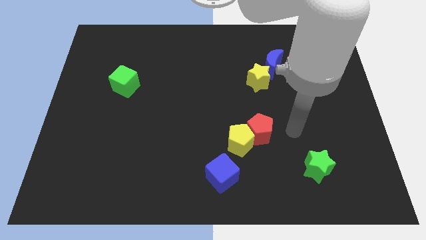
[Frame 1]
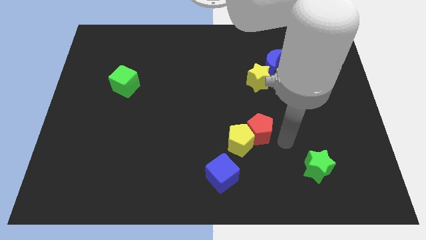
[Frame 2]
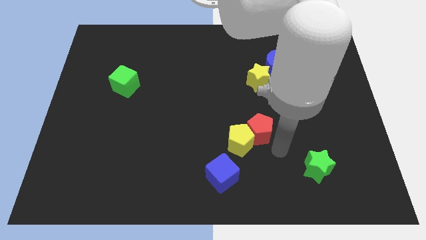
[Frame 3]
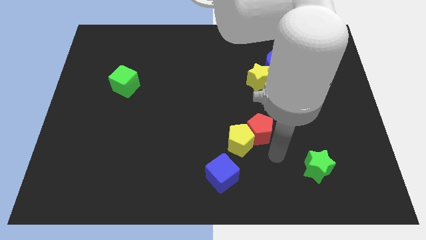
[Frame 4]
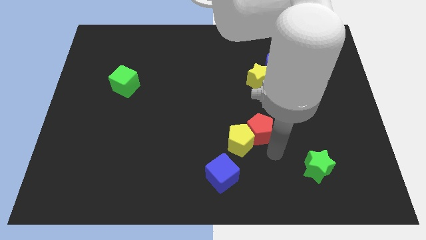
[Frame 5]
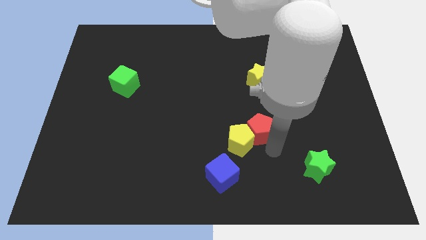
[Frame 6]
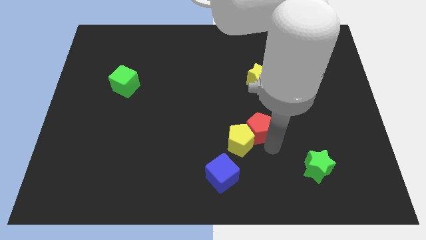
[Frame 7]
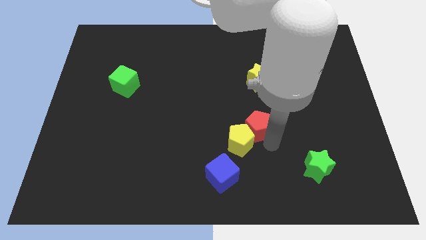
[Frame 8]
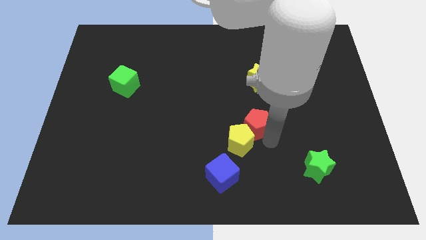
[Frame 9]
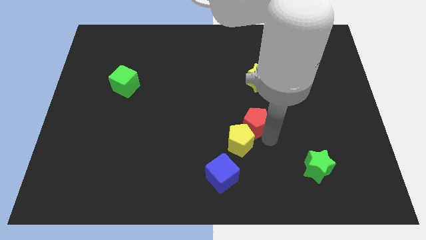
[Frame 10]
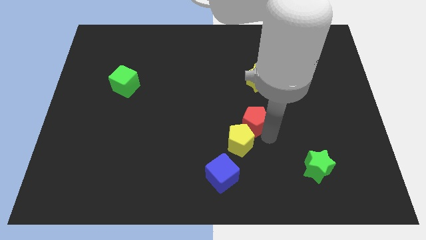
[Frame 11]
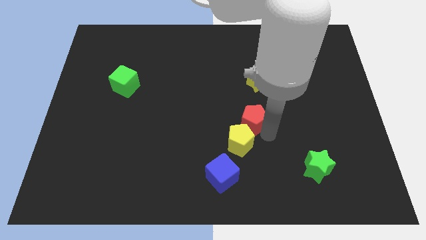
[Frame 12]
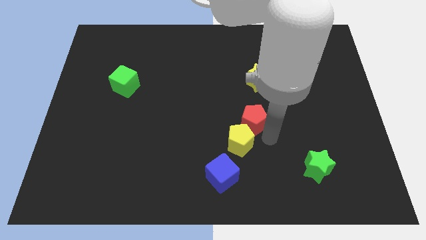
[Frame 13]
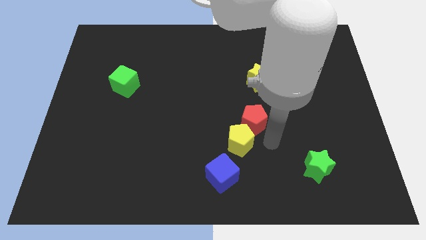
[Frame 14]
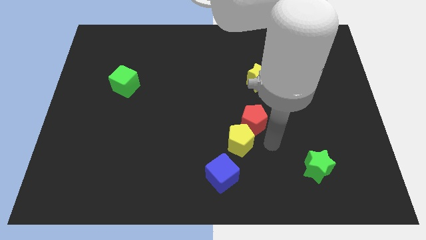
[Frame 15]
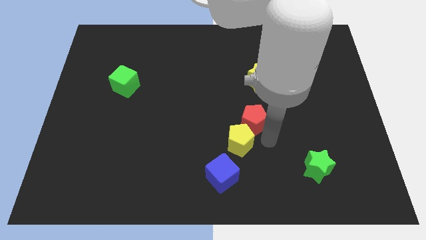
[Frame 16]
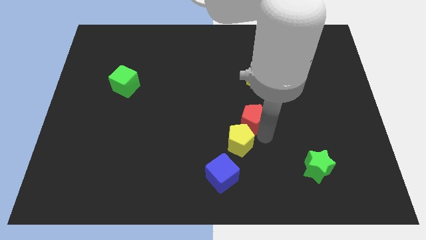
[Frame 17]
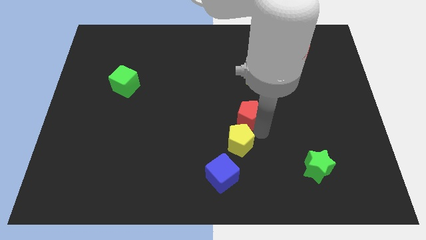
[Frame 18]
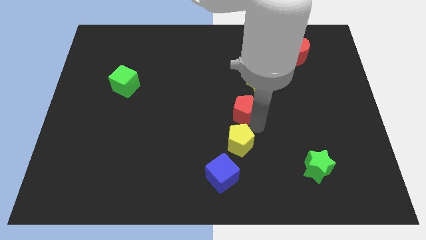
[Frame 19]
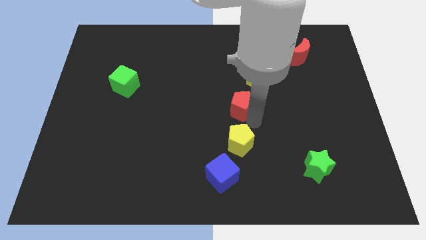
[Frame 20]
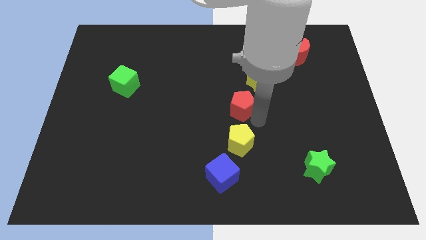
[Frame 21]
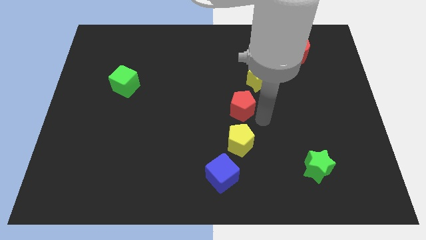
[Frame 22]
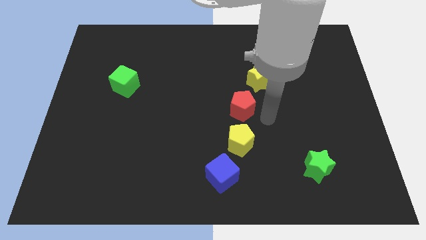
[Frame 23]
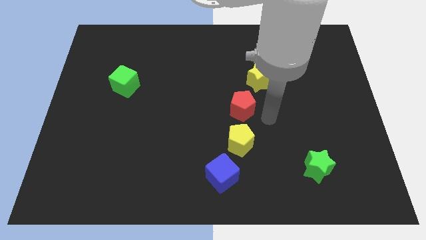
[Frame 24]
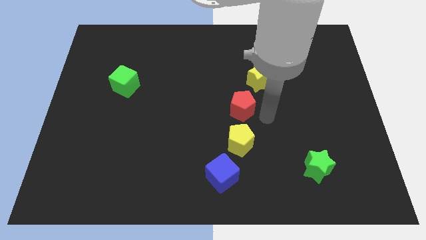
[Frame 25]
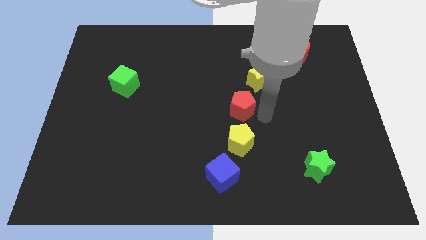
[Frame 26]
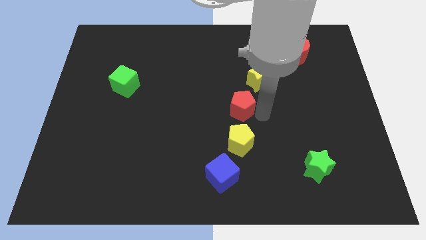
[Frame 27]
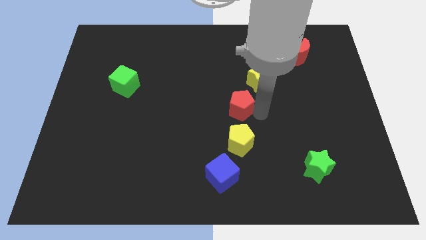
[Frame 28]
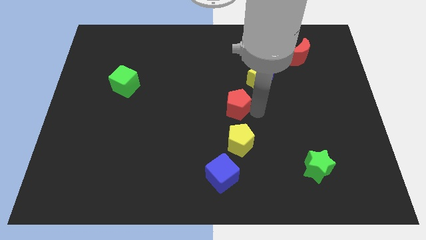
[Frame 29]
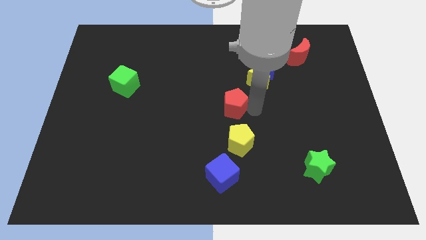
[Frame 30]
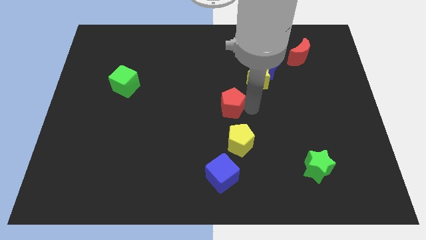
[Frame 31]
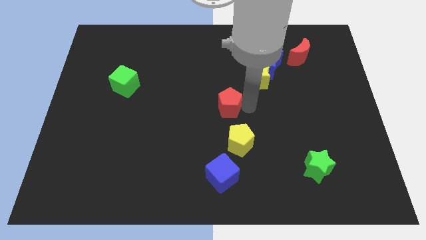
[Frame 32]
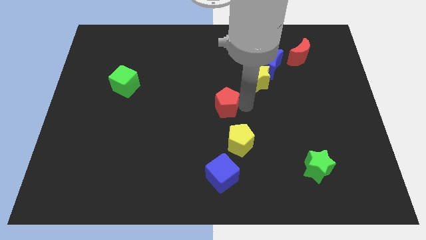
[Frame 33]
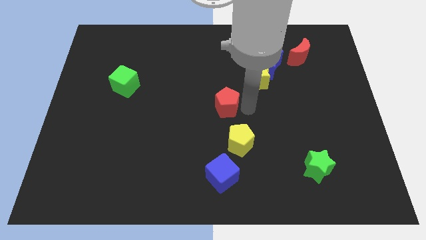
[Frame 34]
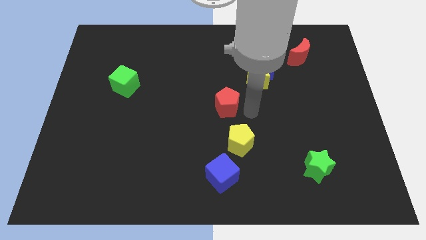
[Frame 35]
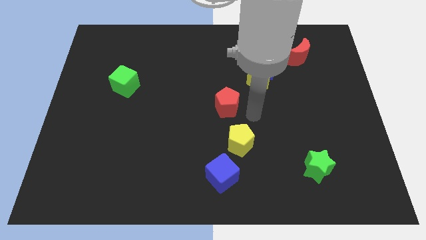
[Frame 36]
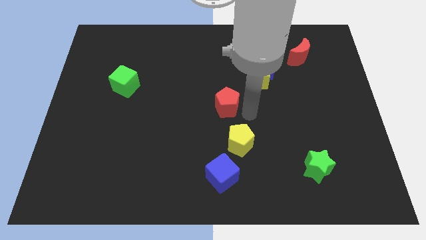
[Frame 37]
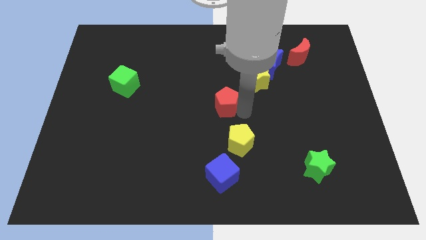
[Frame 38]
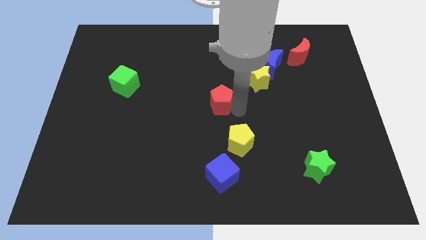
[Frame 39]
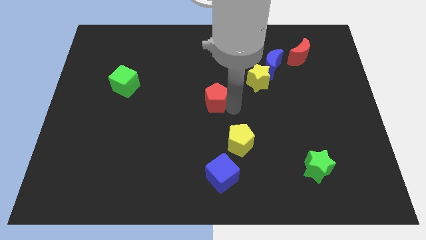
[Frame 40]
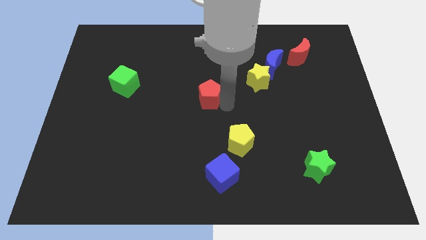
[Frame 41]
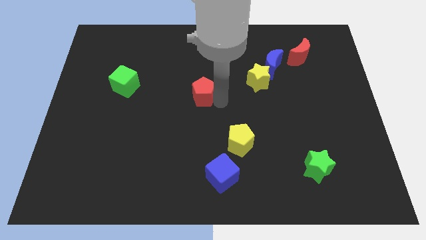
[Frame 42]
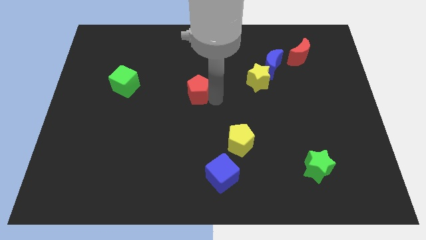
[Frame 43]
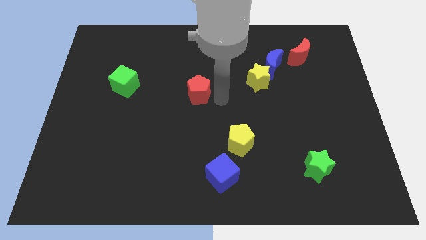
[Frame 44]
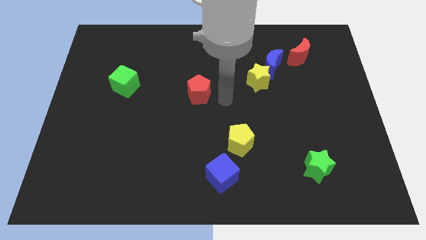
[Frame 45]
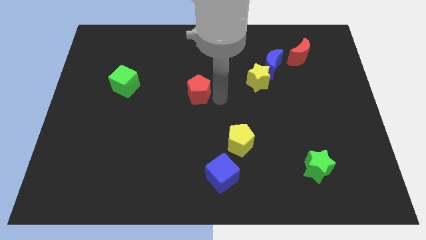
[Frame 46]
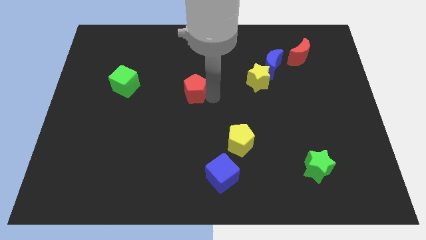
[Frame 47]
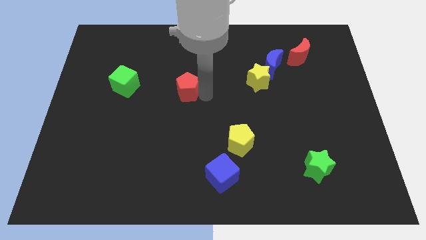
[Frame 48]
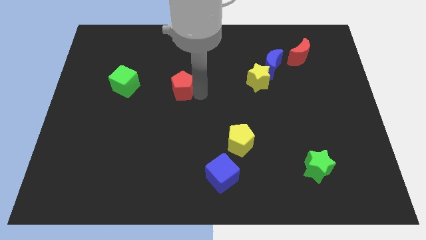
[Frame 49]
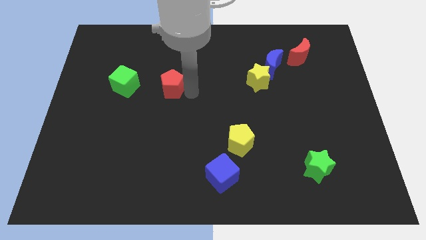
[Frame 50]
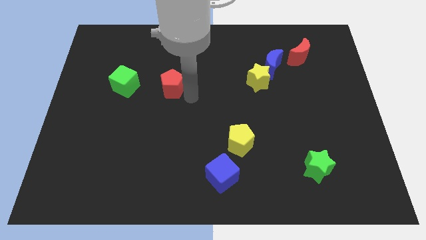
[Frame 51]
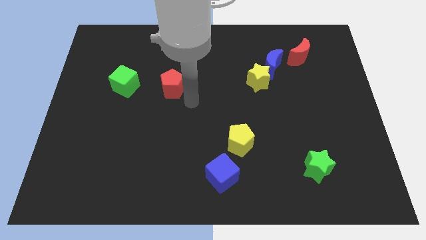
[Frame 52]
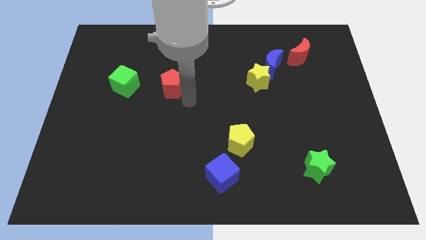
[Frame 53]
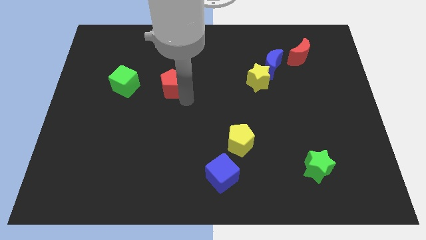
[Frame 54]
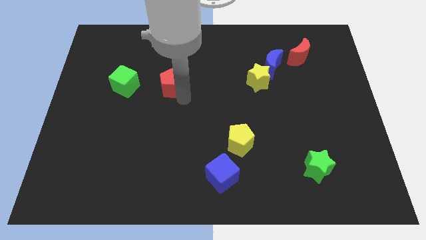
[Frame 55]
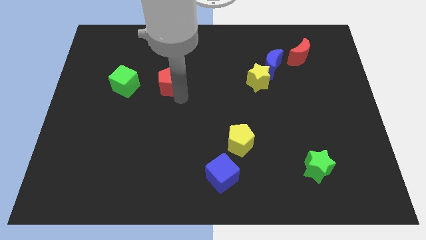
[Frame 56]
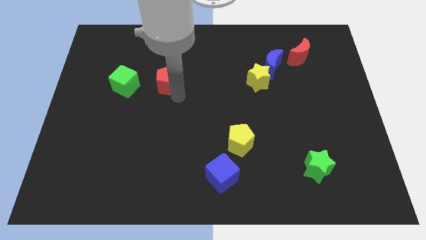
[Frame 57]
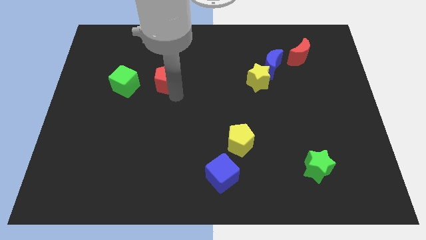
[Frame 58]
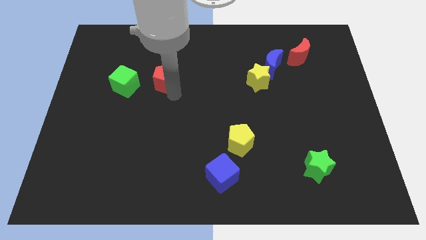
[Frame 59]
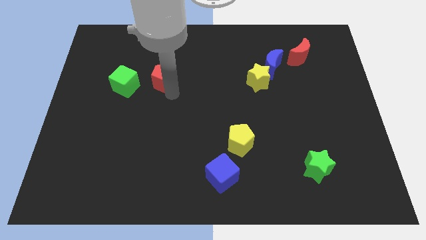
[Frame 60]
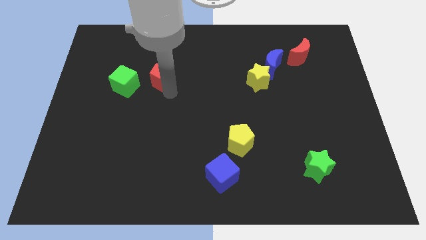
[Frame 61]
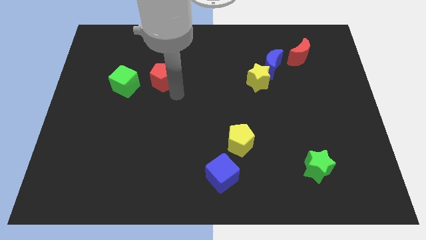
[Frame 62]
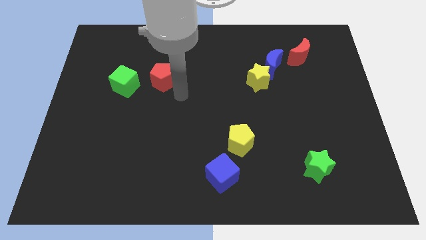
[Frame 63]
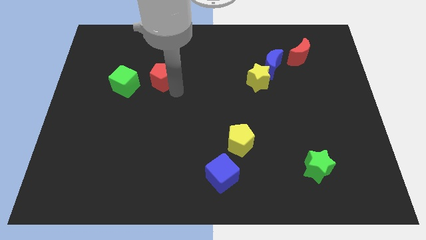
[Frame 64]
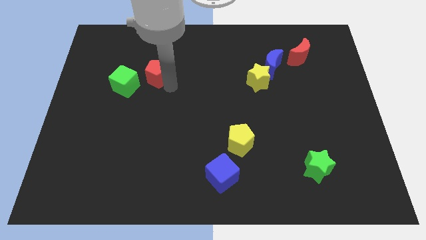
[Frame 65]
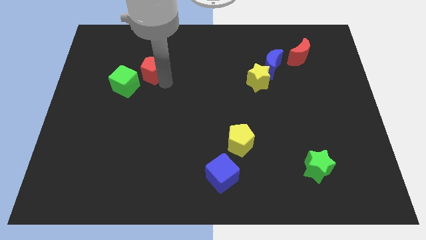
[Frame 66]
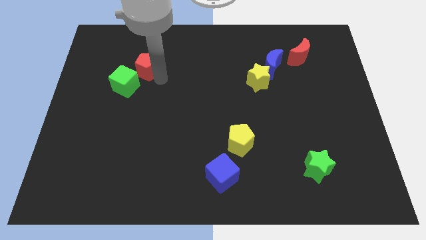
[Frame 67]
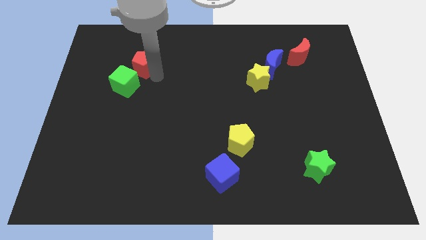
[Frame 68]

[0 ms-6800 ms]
slide the red pentagon above the green cube

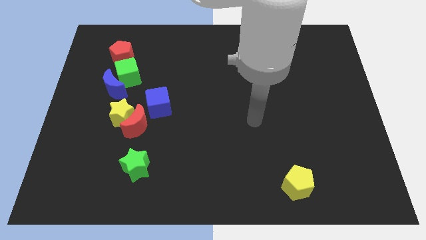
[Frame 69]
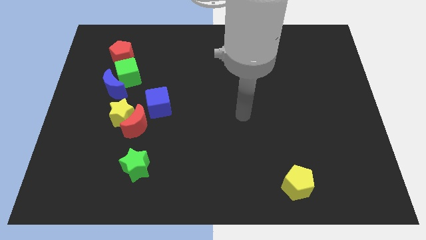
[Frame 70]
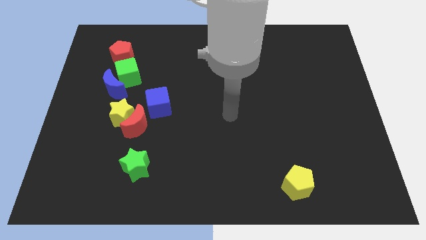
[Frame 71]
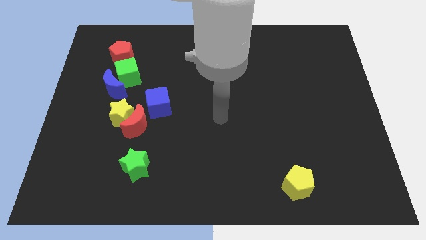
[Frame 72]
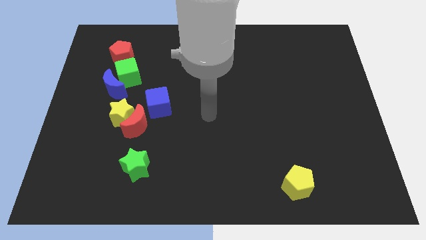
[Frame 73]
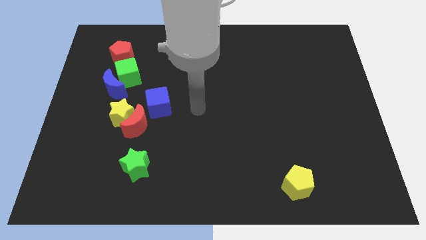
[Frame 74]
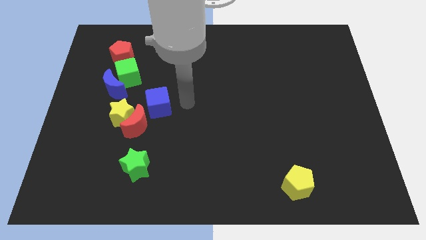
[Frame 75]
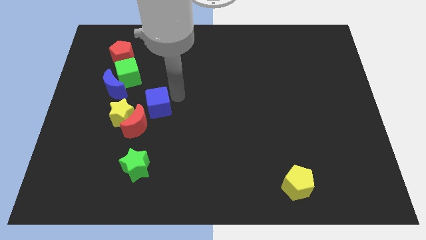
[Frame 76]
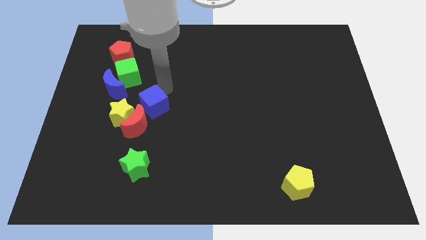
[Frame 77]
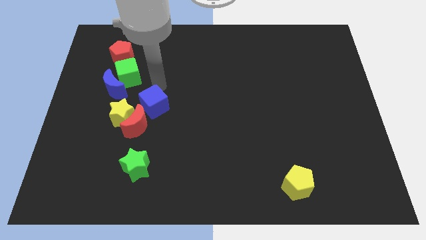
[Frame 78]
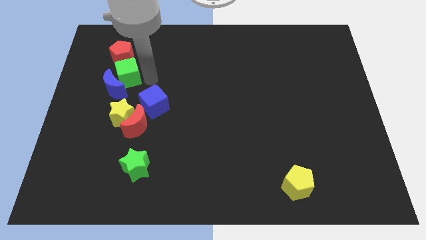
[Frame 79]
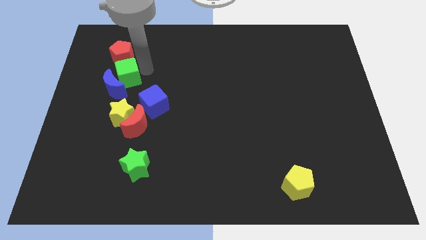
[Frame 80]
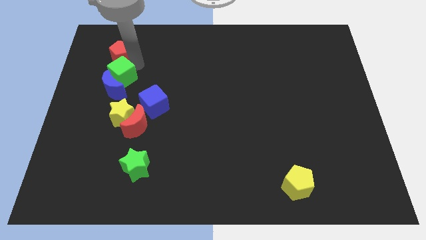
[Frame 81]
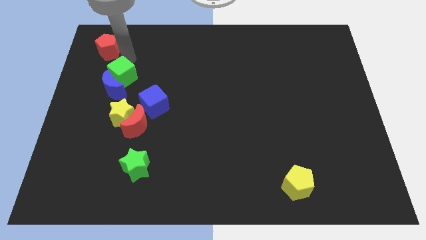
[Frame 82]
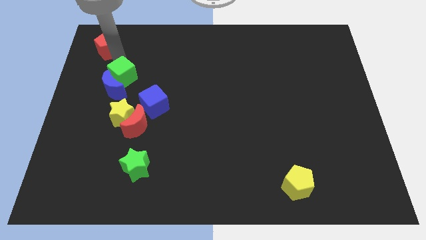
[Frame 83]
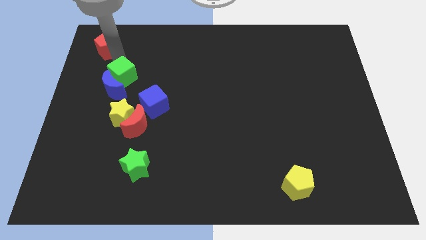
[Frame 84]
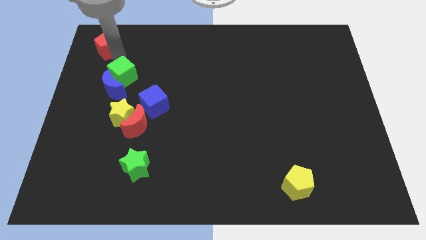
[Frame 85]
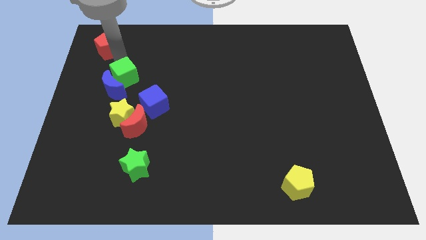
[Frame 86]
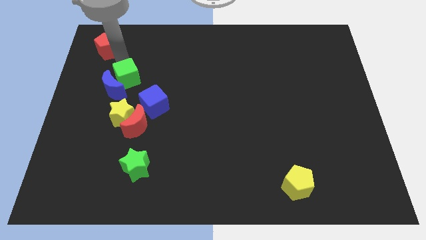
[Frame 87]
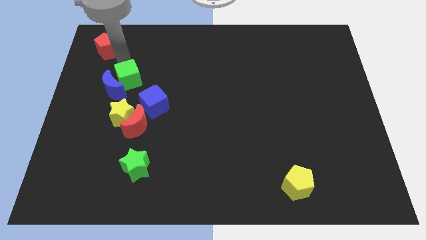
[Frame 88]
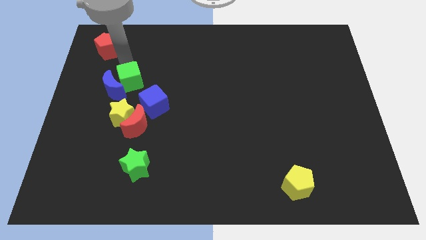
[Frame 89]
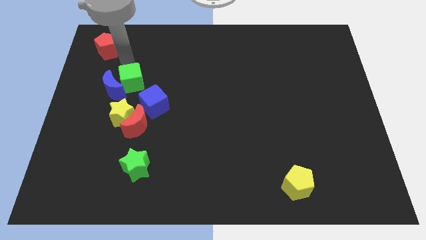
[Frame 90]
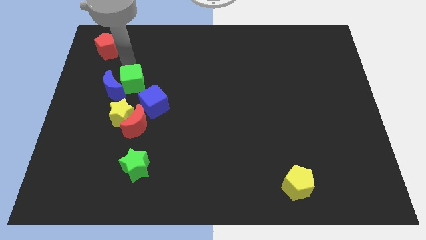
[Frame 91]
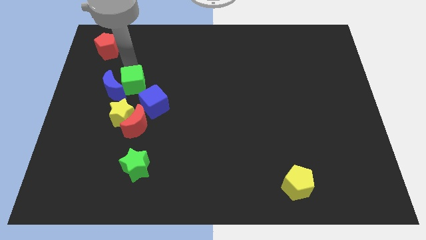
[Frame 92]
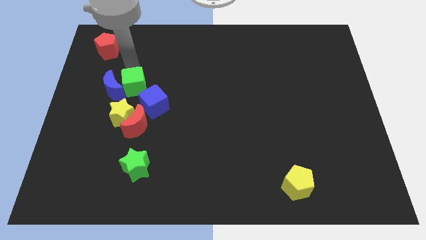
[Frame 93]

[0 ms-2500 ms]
slide the green cube diagonally down and to the right of the blue moon
